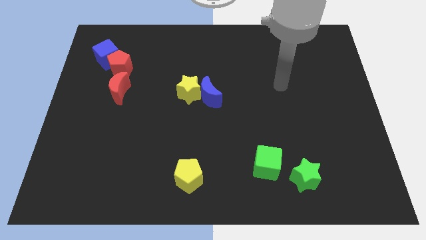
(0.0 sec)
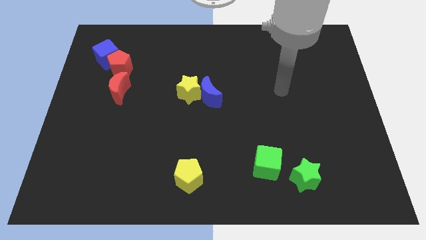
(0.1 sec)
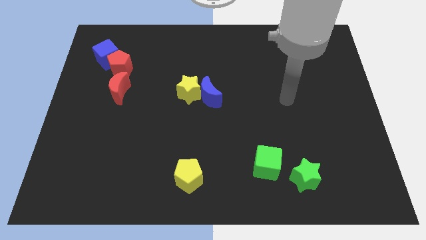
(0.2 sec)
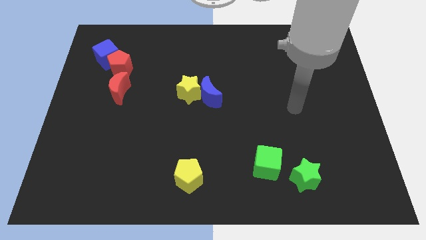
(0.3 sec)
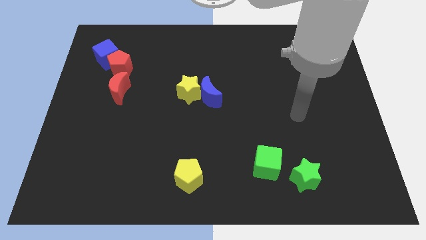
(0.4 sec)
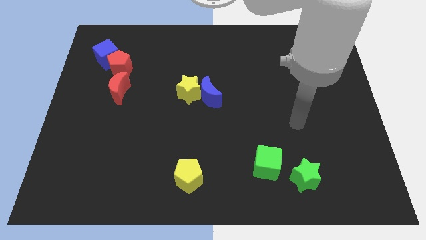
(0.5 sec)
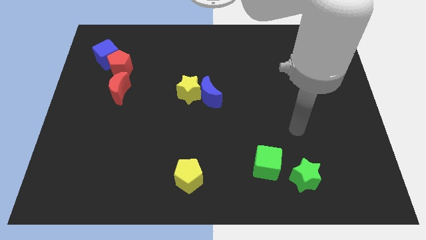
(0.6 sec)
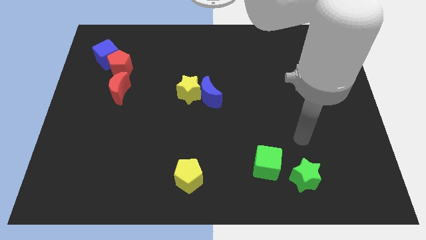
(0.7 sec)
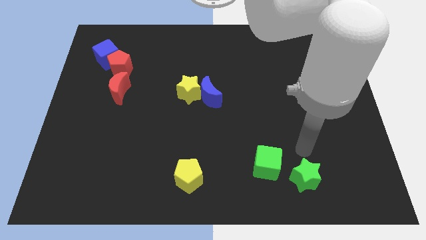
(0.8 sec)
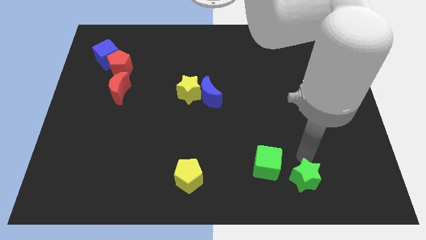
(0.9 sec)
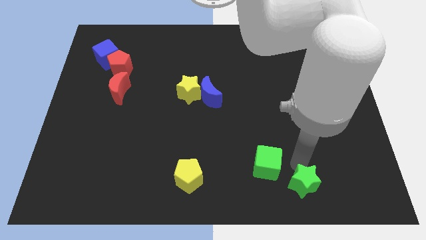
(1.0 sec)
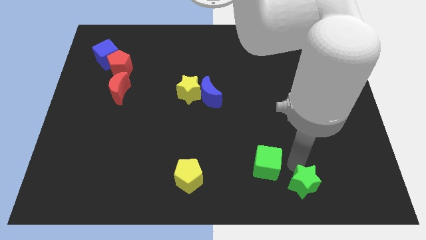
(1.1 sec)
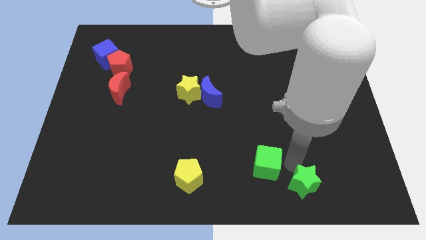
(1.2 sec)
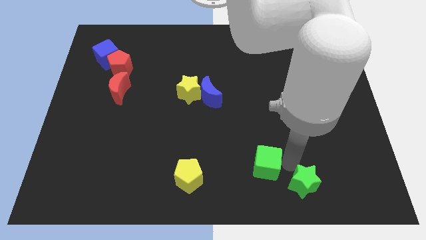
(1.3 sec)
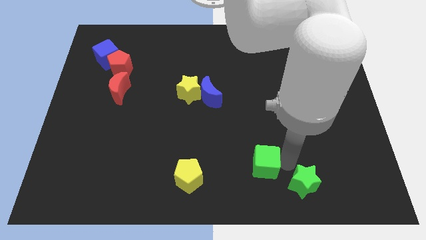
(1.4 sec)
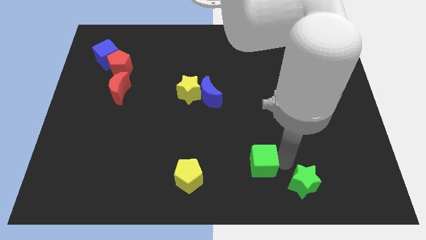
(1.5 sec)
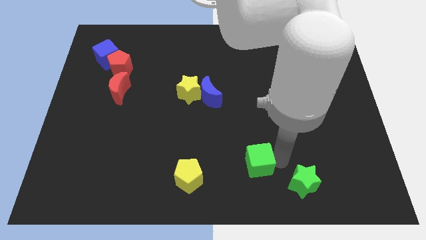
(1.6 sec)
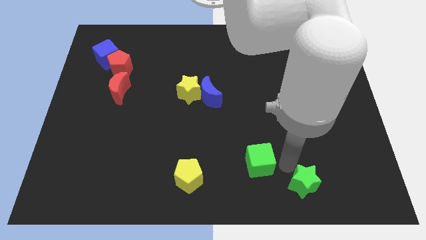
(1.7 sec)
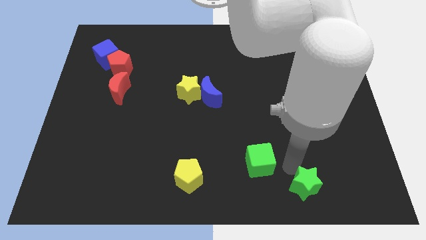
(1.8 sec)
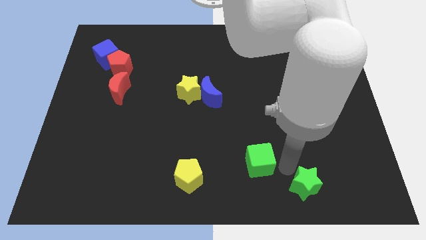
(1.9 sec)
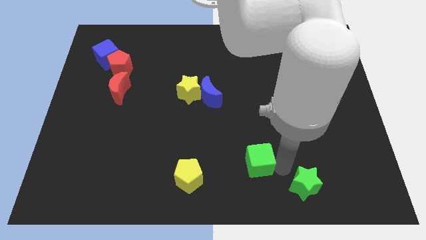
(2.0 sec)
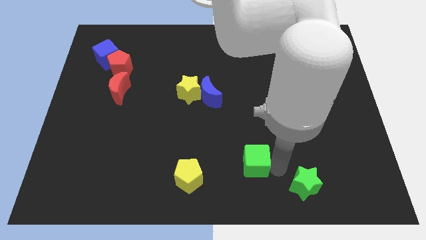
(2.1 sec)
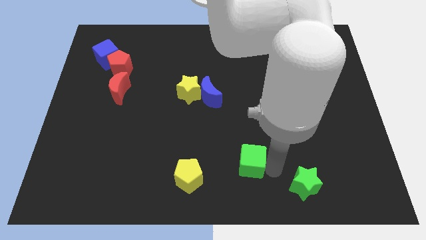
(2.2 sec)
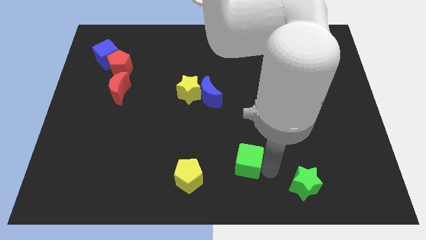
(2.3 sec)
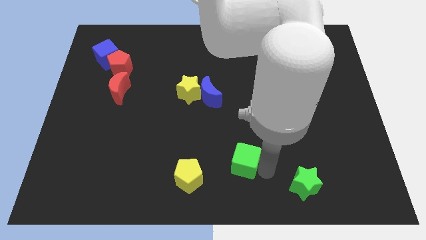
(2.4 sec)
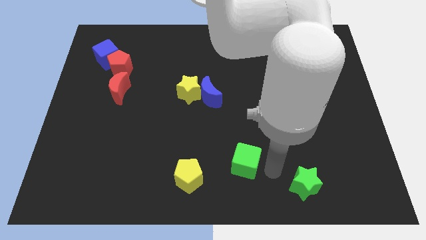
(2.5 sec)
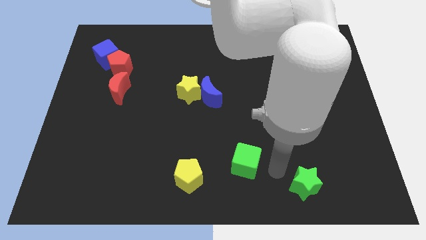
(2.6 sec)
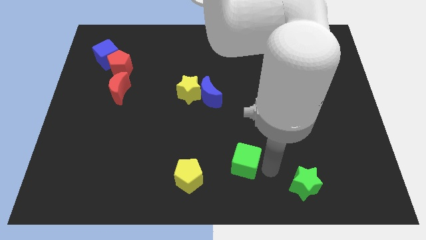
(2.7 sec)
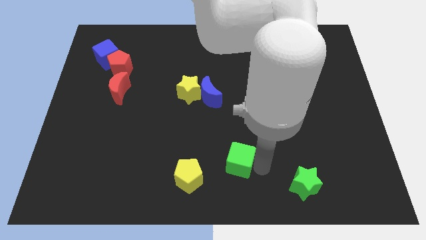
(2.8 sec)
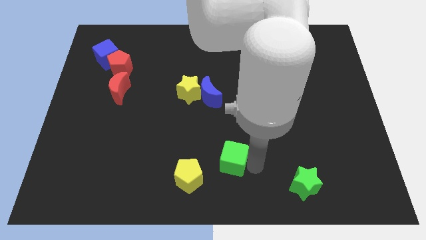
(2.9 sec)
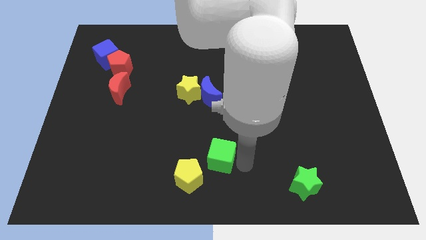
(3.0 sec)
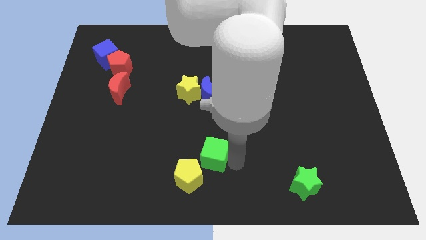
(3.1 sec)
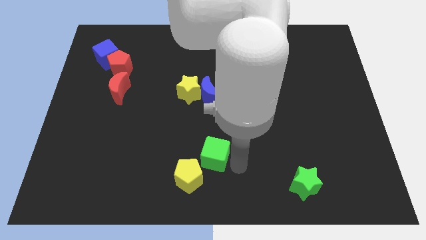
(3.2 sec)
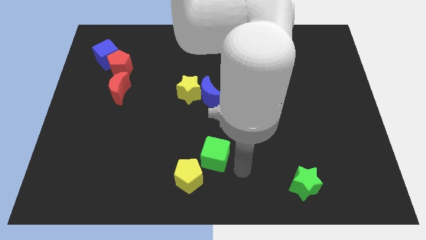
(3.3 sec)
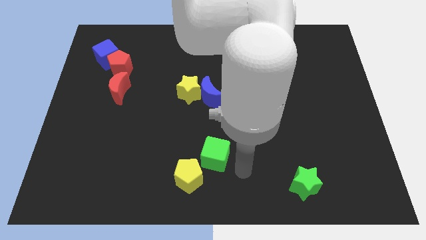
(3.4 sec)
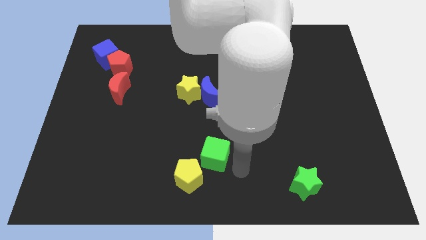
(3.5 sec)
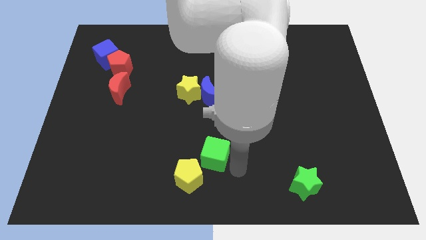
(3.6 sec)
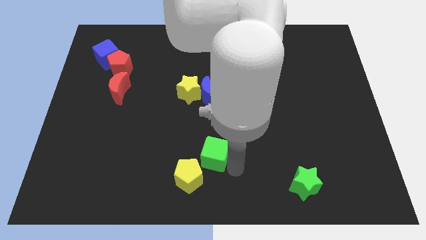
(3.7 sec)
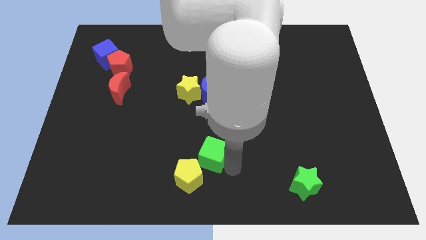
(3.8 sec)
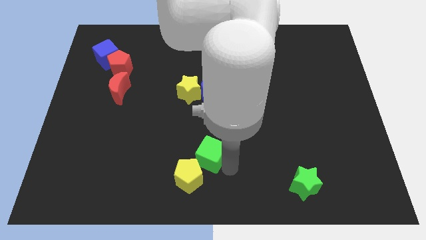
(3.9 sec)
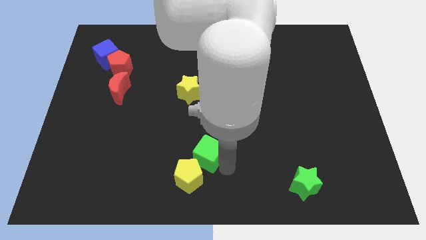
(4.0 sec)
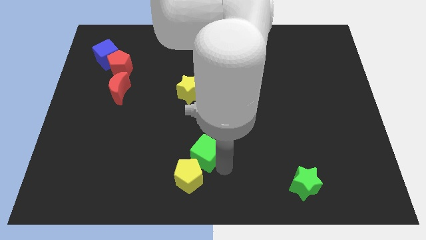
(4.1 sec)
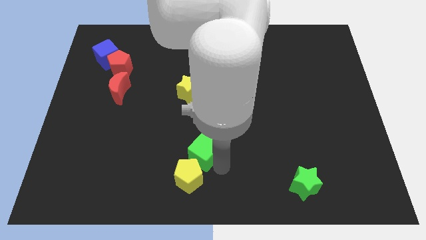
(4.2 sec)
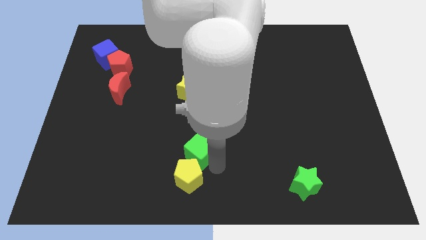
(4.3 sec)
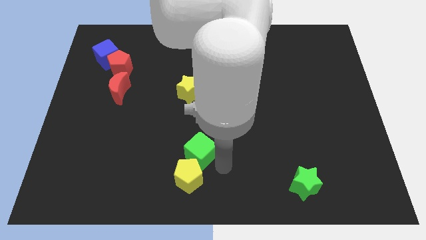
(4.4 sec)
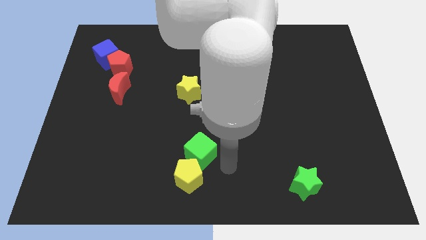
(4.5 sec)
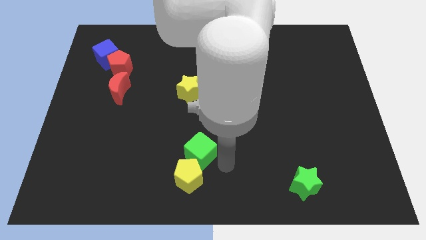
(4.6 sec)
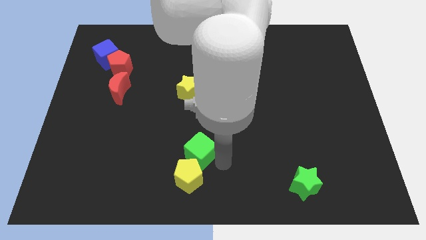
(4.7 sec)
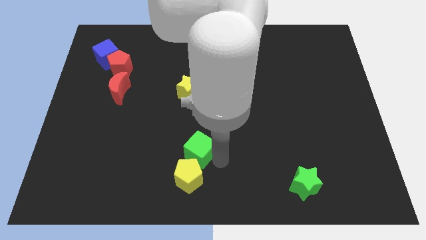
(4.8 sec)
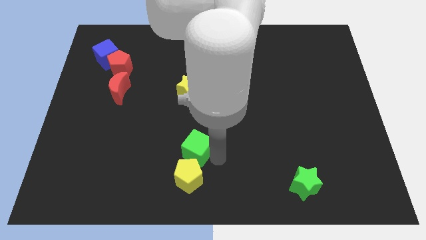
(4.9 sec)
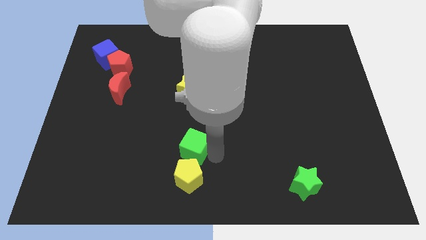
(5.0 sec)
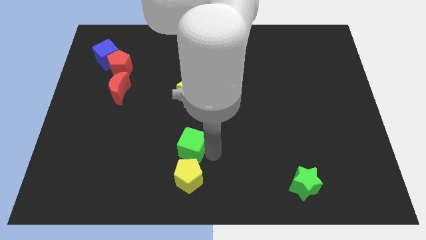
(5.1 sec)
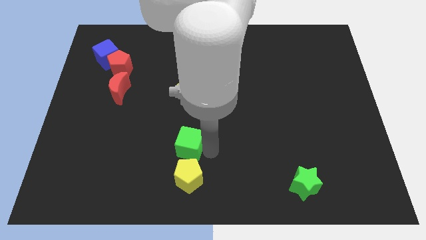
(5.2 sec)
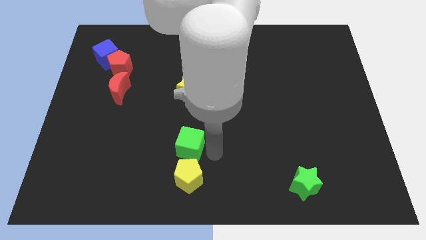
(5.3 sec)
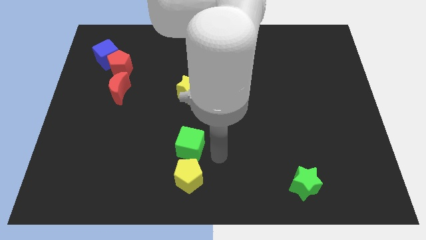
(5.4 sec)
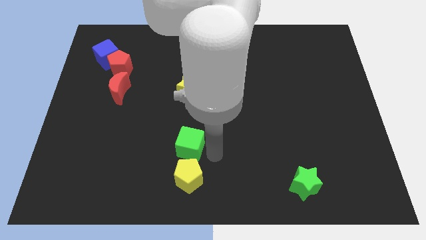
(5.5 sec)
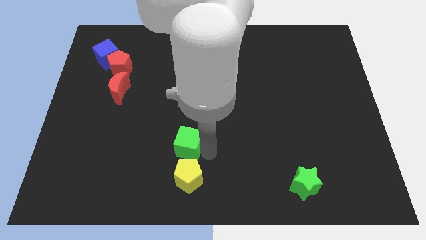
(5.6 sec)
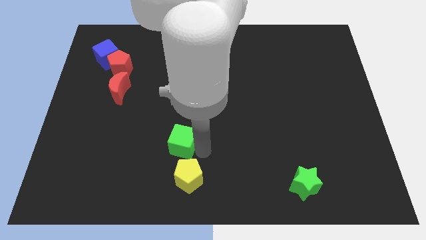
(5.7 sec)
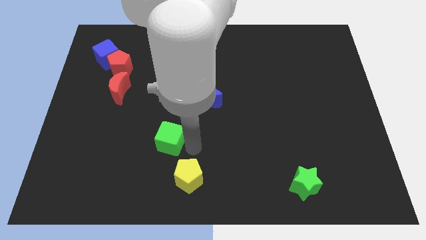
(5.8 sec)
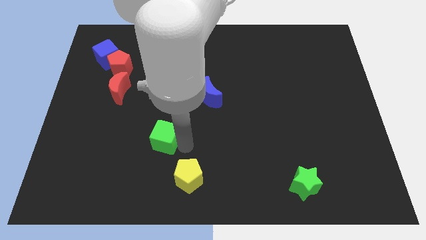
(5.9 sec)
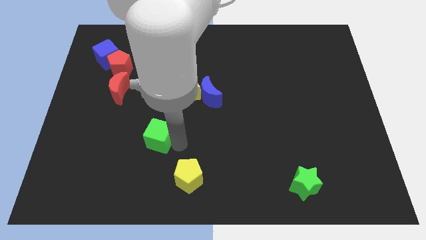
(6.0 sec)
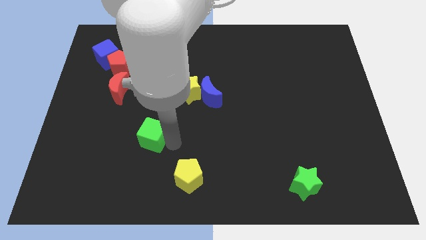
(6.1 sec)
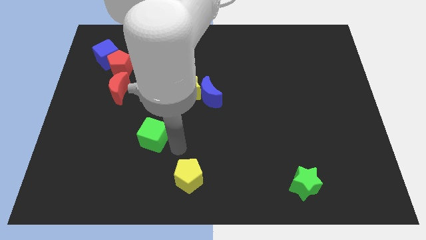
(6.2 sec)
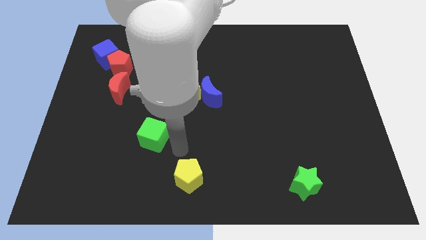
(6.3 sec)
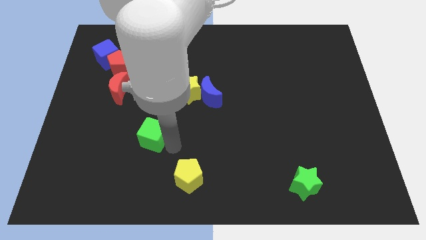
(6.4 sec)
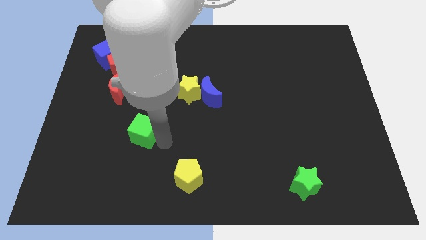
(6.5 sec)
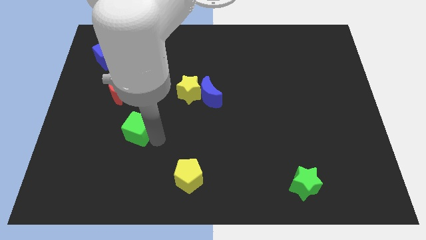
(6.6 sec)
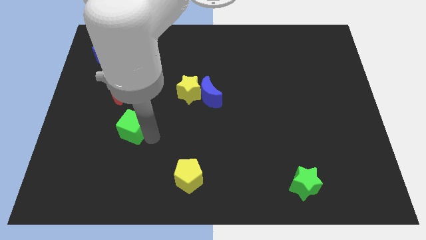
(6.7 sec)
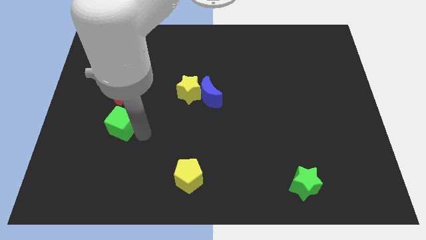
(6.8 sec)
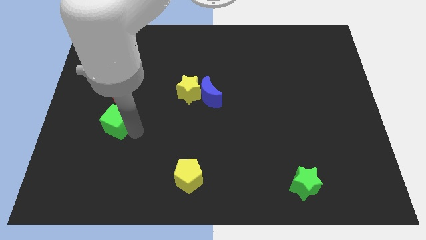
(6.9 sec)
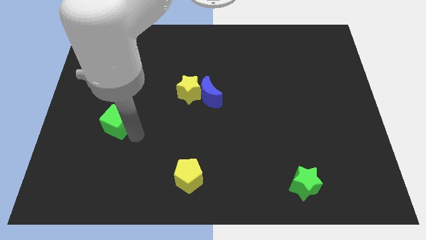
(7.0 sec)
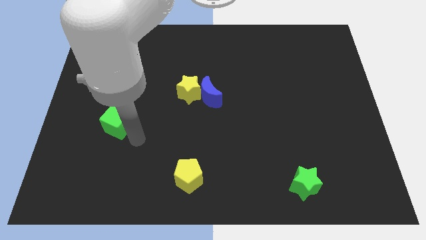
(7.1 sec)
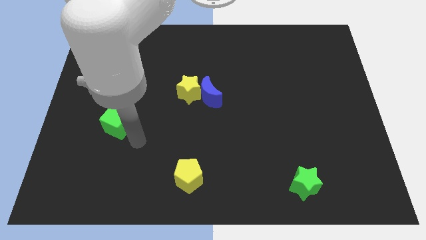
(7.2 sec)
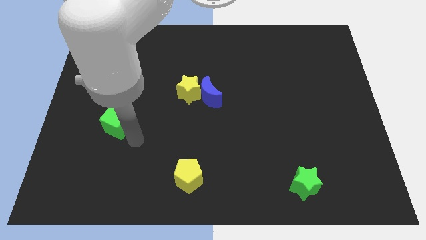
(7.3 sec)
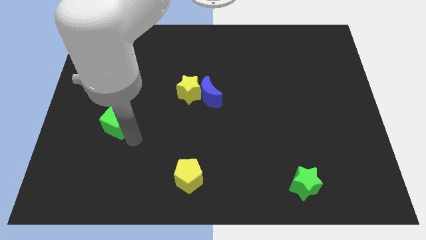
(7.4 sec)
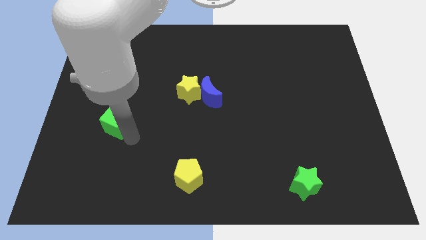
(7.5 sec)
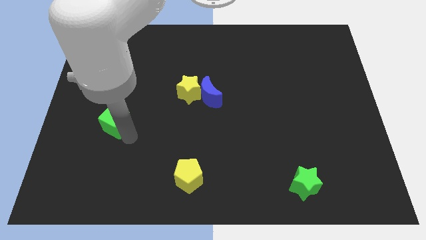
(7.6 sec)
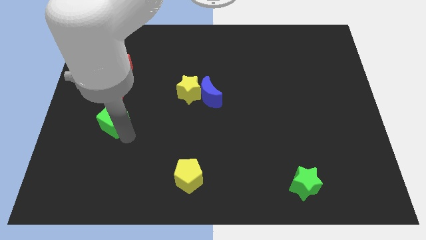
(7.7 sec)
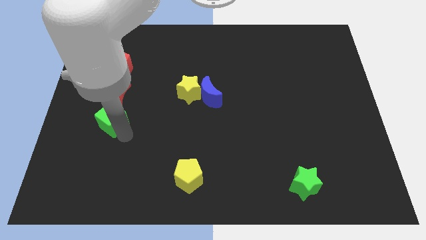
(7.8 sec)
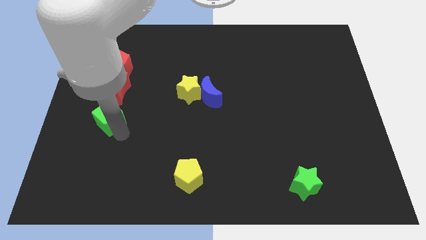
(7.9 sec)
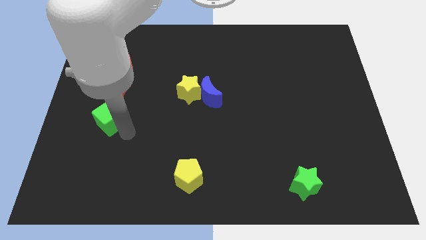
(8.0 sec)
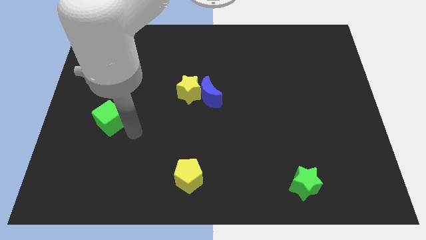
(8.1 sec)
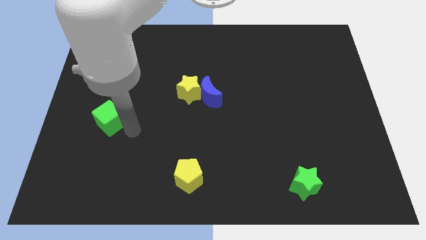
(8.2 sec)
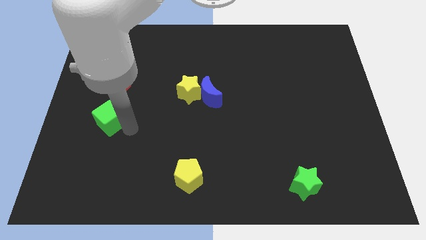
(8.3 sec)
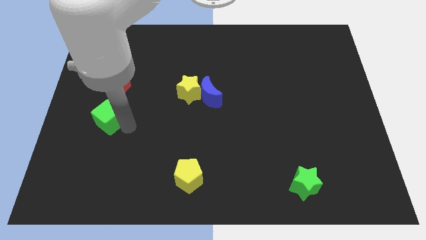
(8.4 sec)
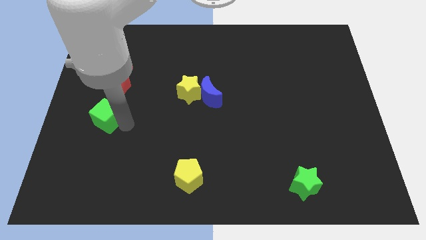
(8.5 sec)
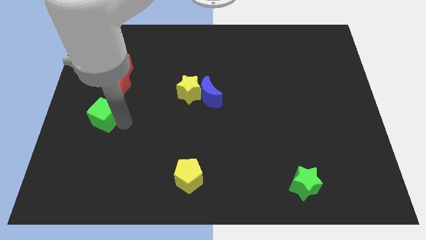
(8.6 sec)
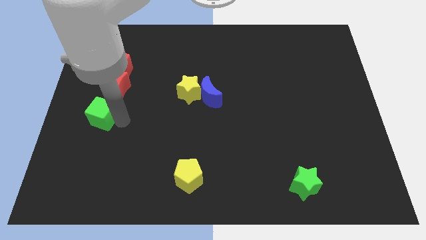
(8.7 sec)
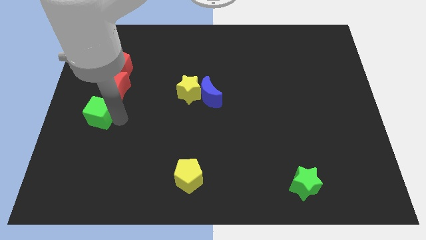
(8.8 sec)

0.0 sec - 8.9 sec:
put the green cube to the left side of the board
